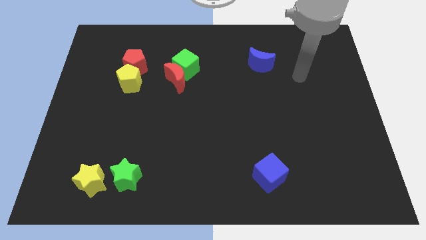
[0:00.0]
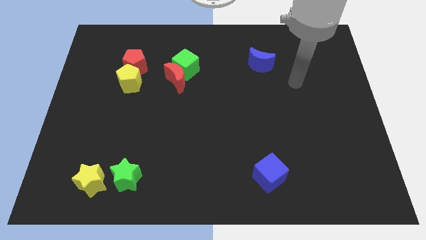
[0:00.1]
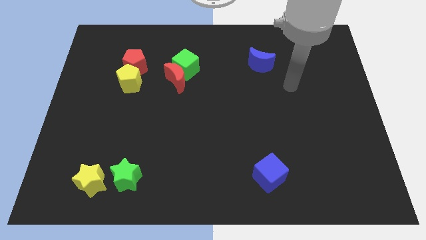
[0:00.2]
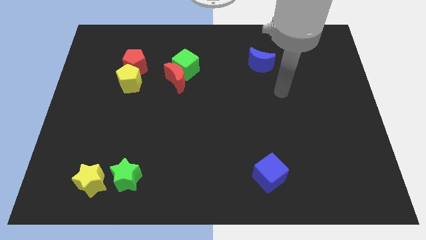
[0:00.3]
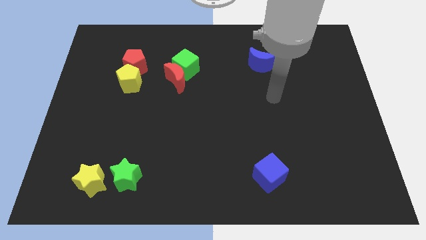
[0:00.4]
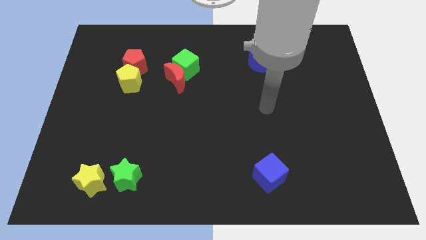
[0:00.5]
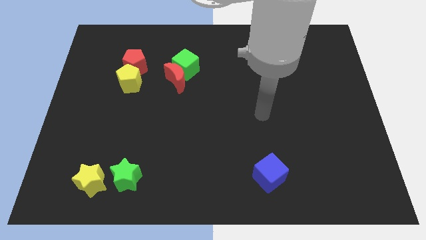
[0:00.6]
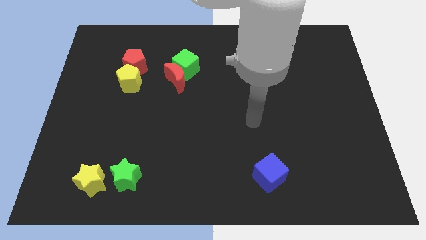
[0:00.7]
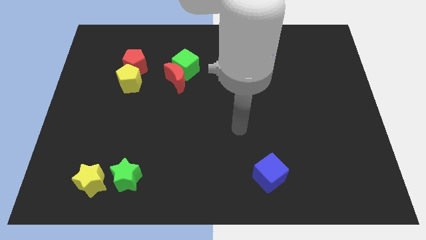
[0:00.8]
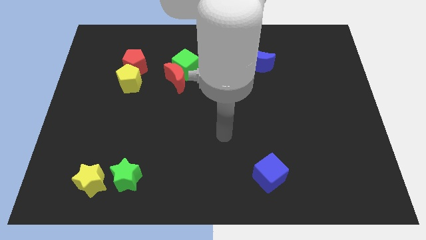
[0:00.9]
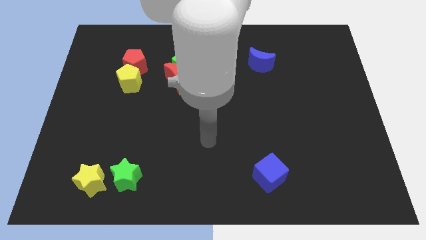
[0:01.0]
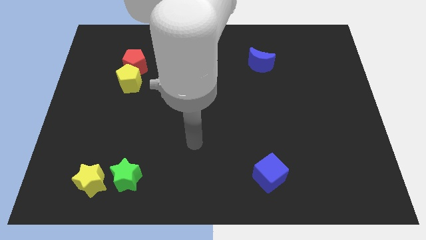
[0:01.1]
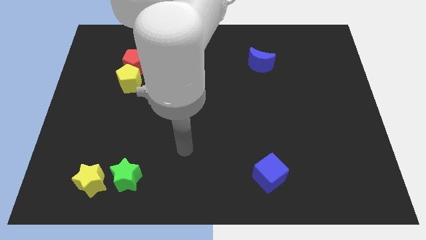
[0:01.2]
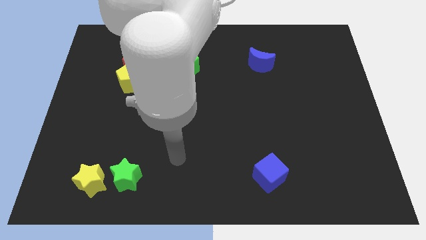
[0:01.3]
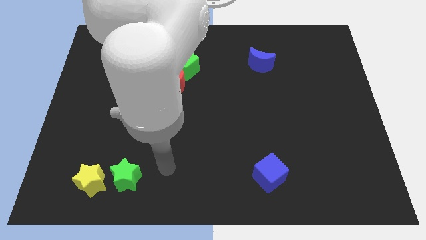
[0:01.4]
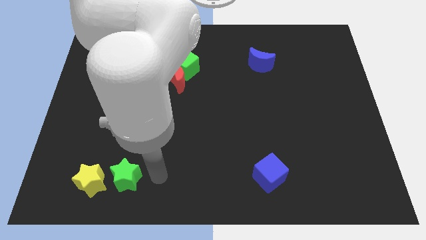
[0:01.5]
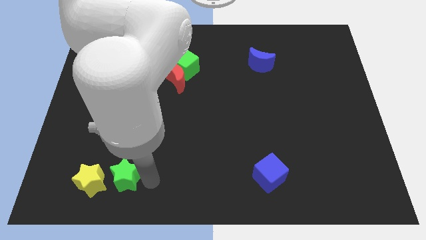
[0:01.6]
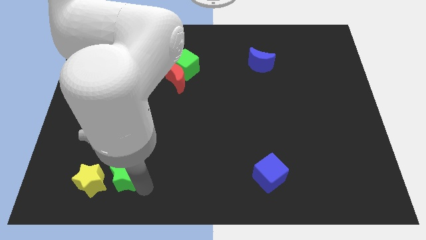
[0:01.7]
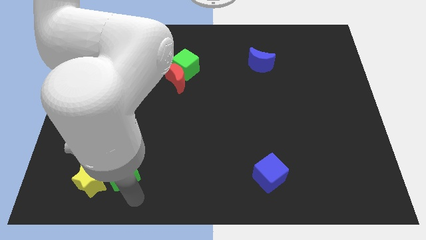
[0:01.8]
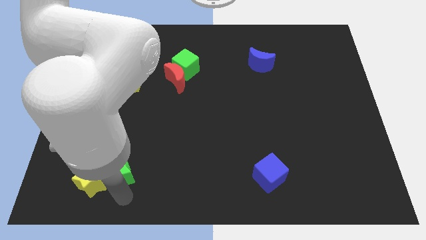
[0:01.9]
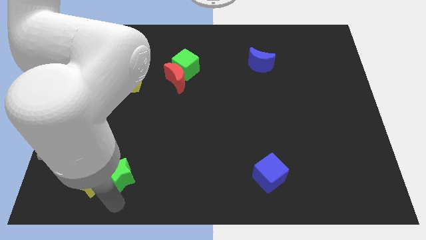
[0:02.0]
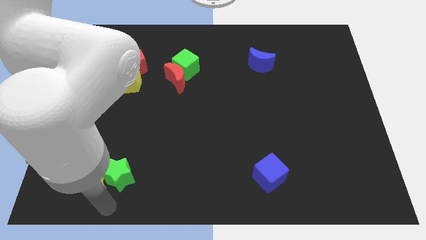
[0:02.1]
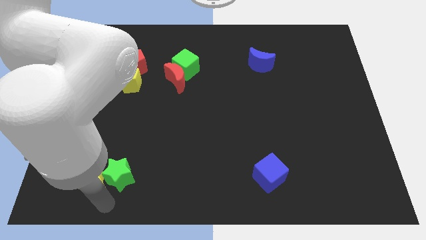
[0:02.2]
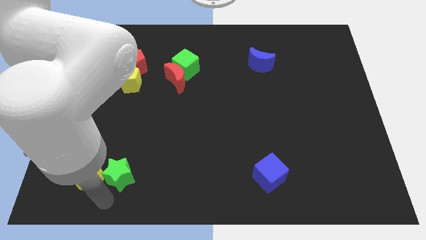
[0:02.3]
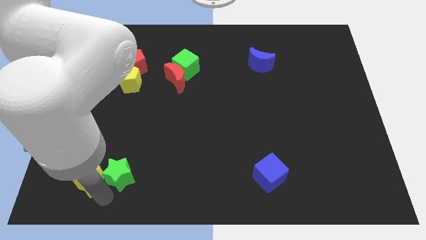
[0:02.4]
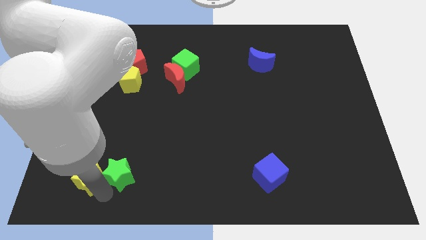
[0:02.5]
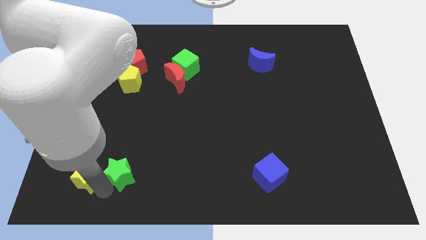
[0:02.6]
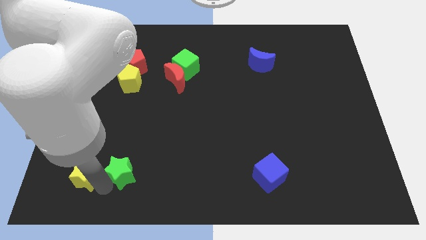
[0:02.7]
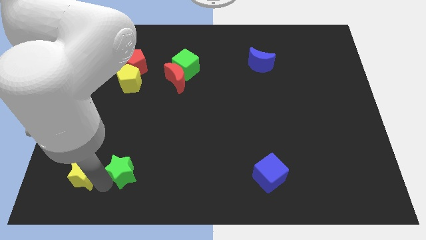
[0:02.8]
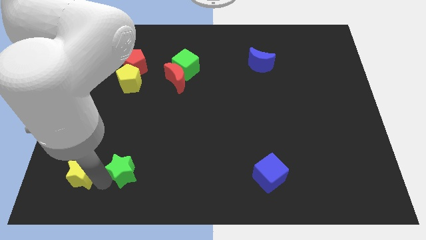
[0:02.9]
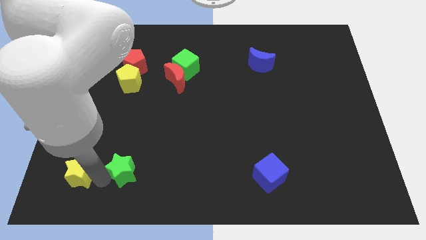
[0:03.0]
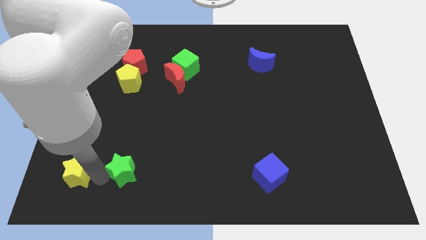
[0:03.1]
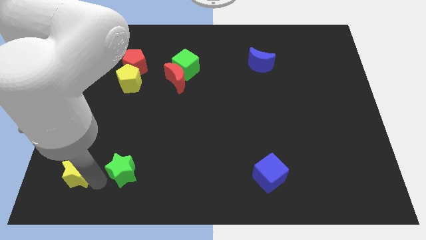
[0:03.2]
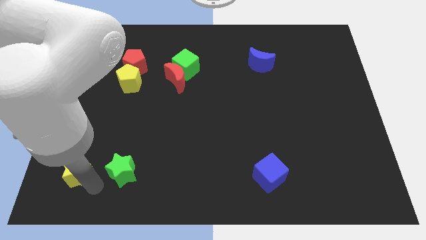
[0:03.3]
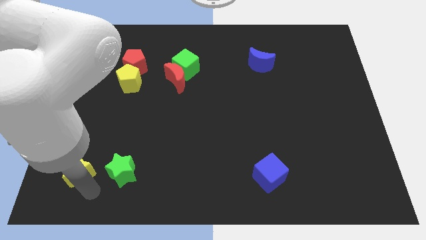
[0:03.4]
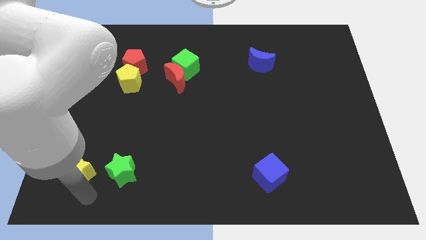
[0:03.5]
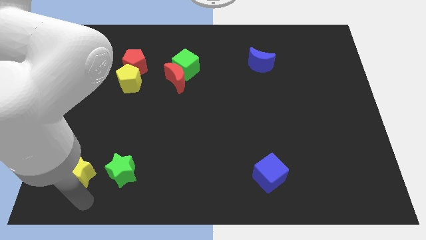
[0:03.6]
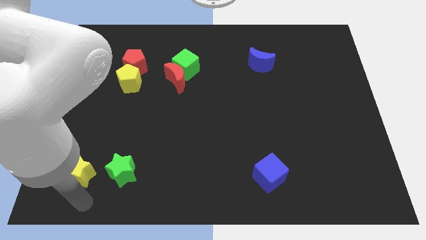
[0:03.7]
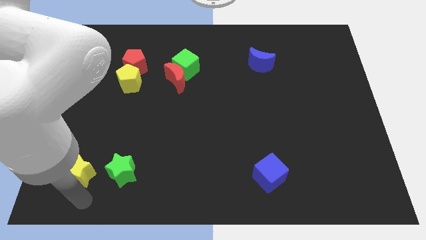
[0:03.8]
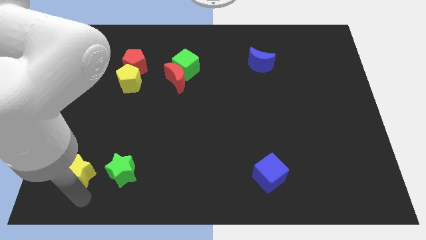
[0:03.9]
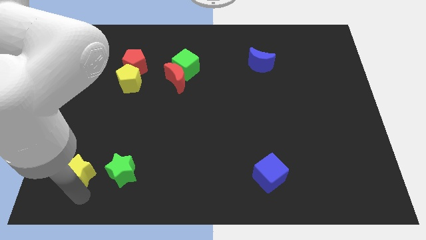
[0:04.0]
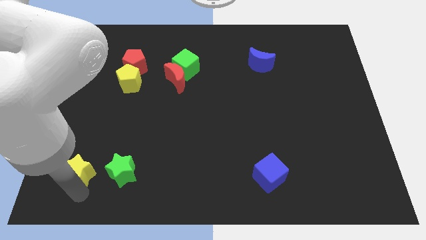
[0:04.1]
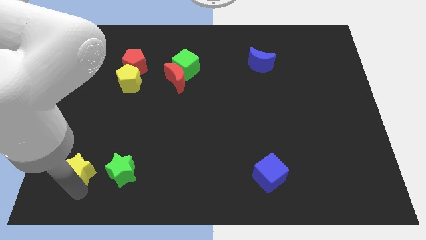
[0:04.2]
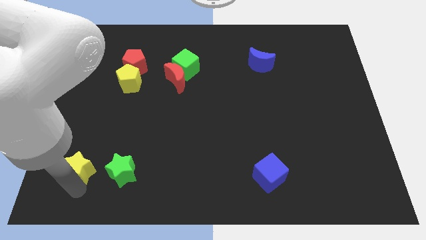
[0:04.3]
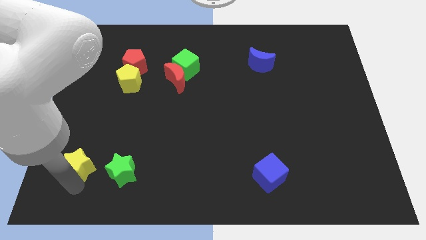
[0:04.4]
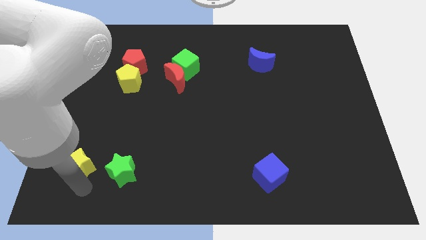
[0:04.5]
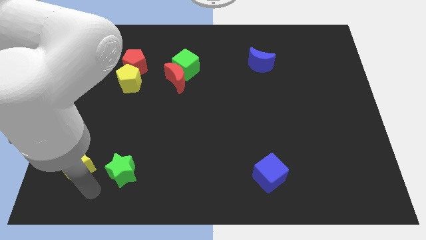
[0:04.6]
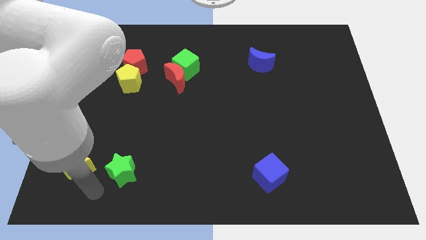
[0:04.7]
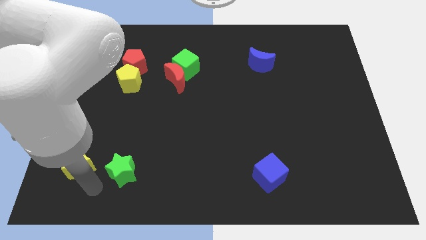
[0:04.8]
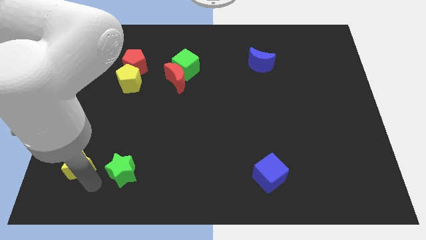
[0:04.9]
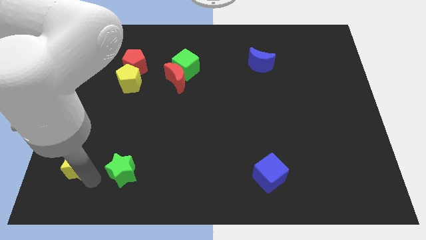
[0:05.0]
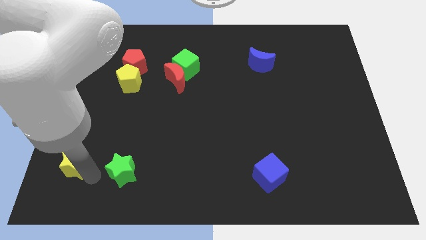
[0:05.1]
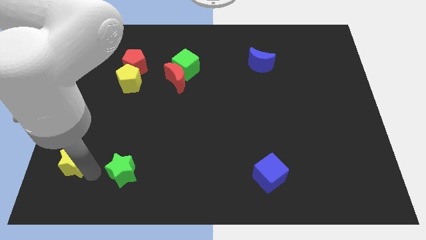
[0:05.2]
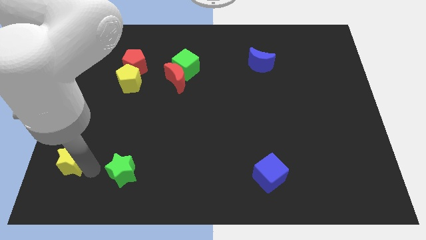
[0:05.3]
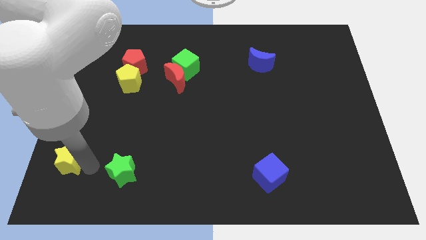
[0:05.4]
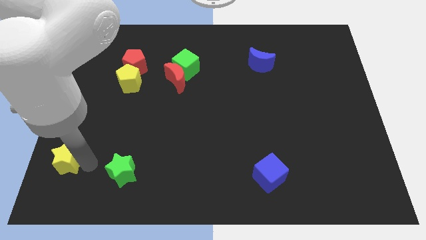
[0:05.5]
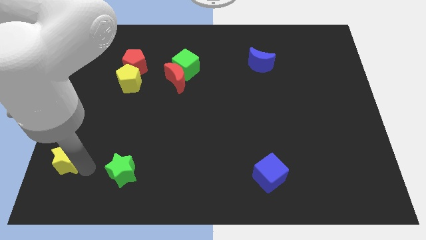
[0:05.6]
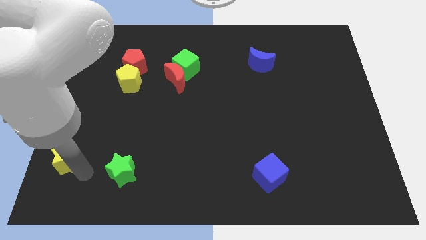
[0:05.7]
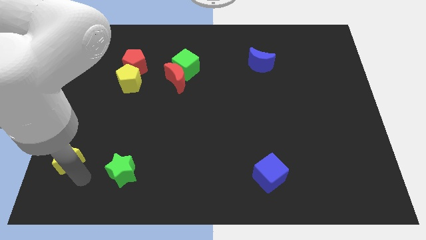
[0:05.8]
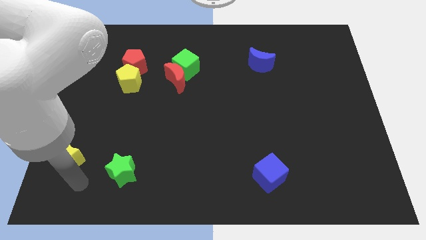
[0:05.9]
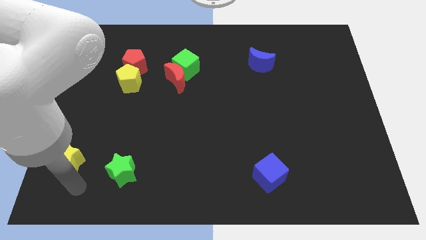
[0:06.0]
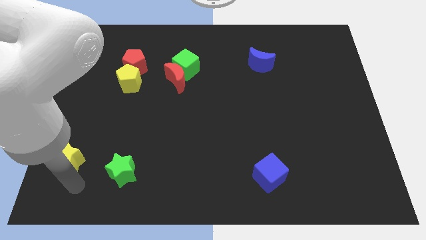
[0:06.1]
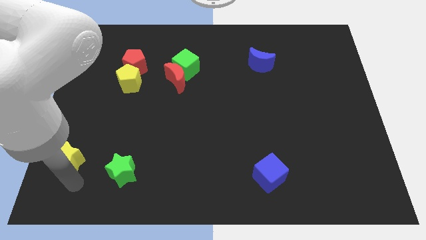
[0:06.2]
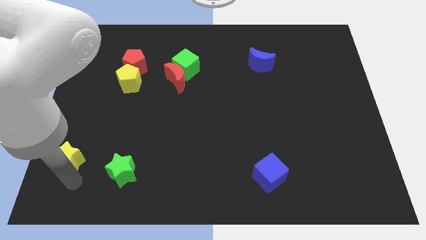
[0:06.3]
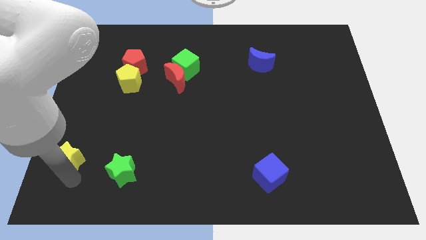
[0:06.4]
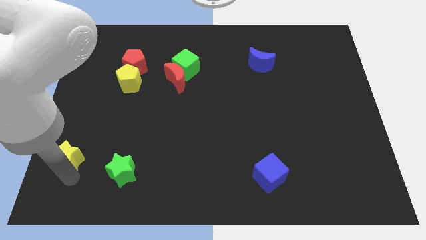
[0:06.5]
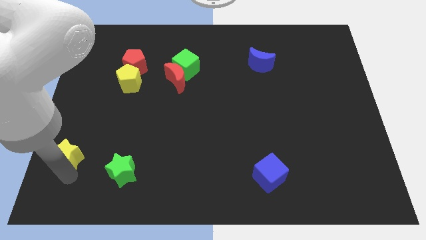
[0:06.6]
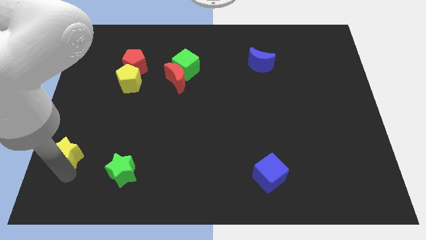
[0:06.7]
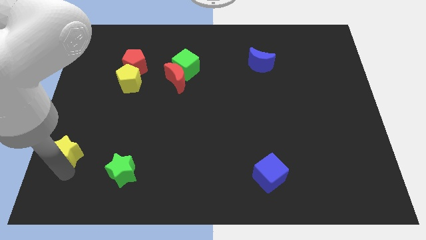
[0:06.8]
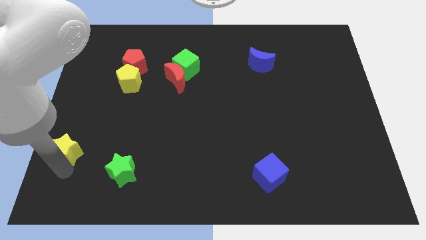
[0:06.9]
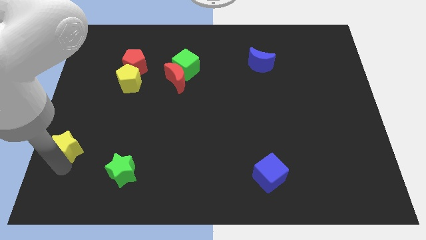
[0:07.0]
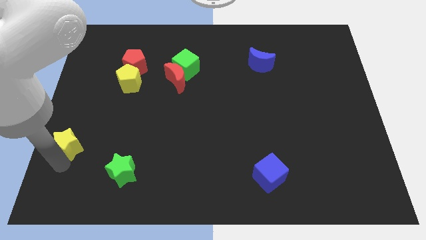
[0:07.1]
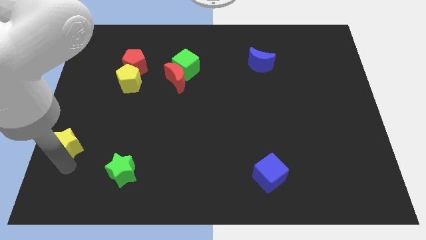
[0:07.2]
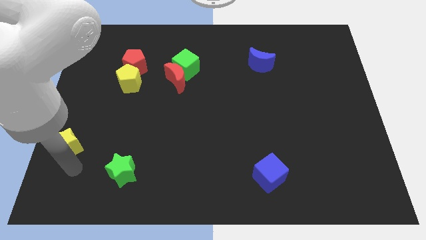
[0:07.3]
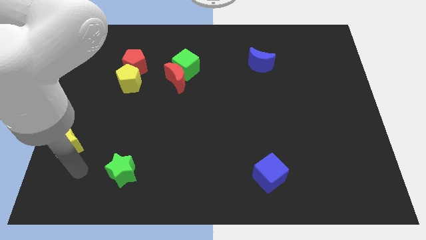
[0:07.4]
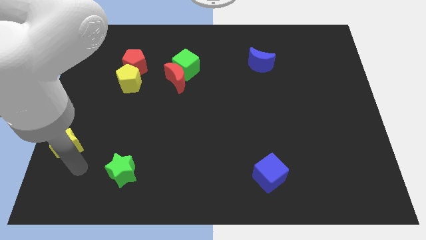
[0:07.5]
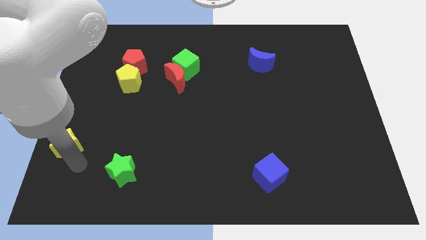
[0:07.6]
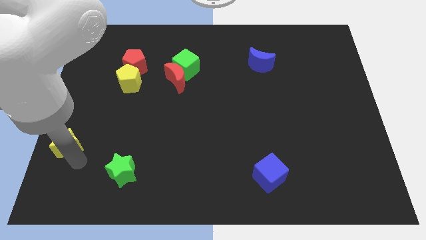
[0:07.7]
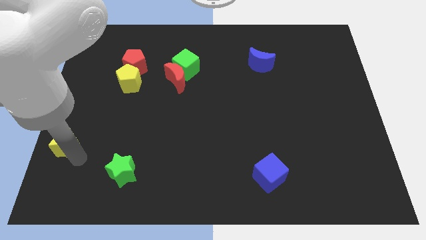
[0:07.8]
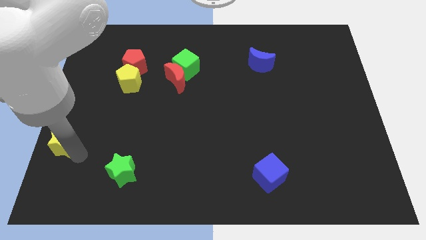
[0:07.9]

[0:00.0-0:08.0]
put the yellow star to the center left
